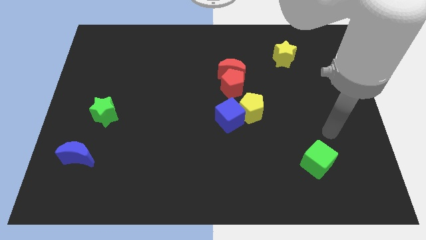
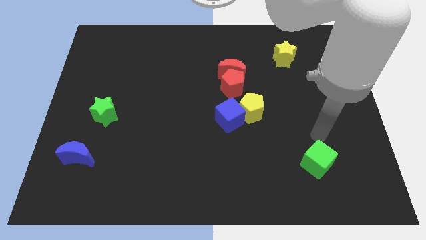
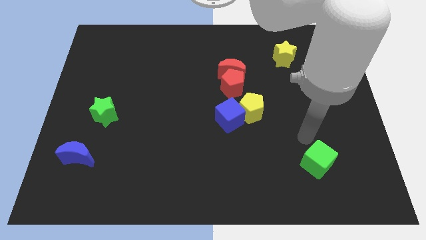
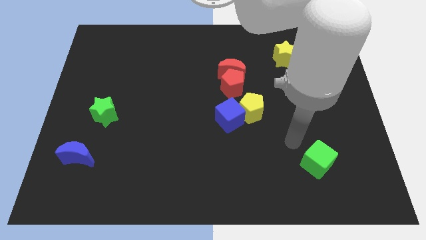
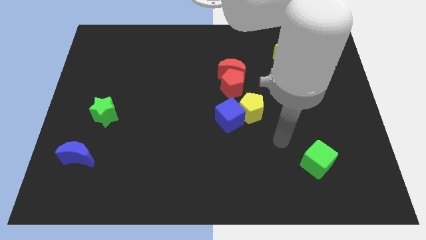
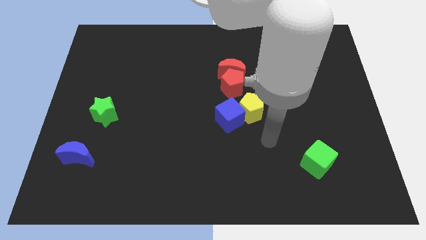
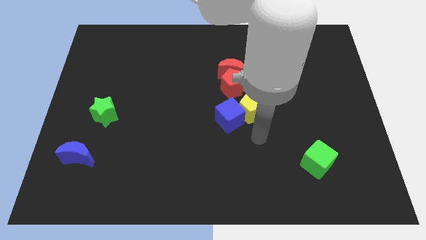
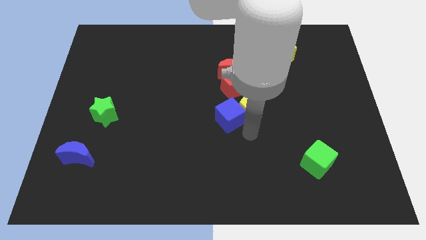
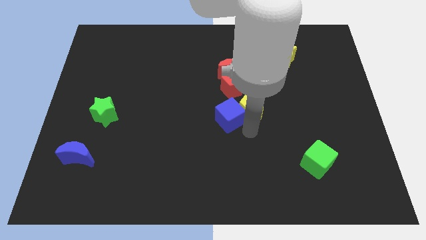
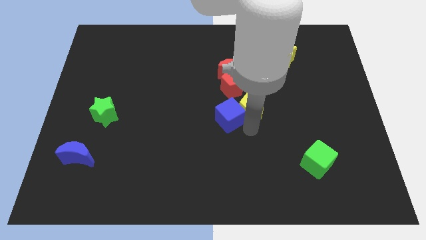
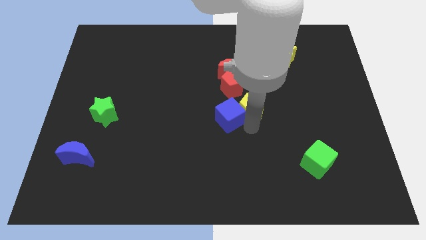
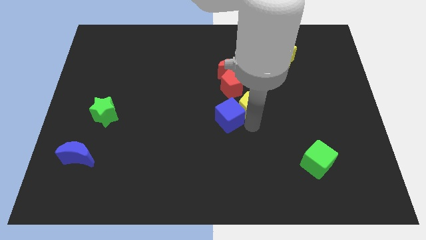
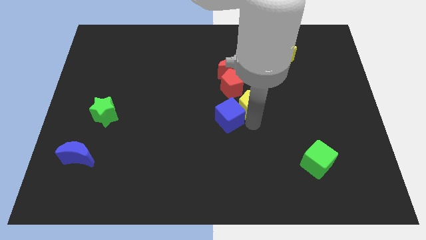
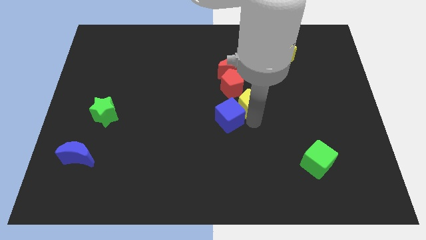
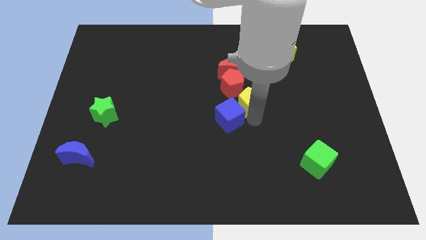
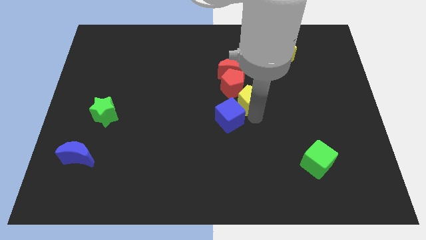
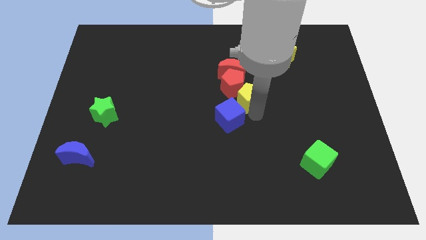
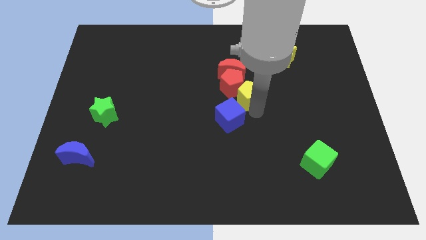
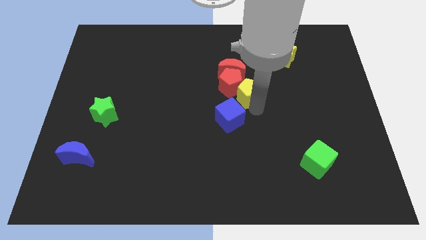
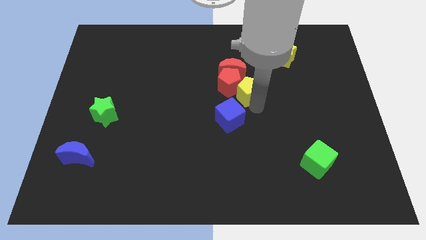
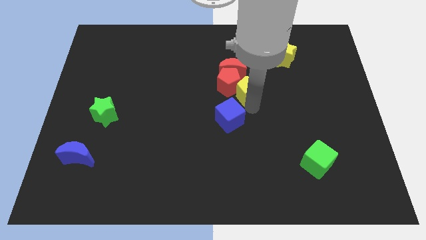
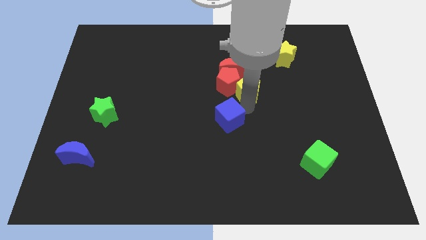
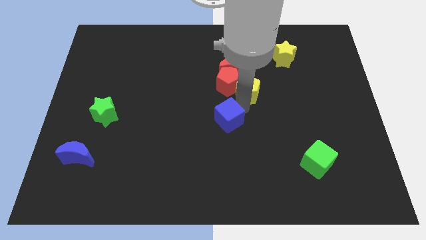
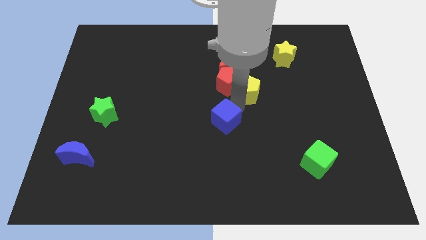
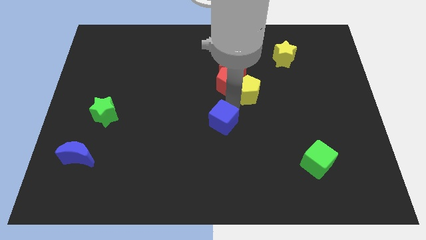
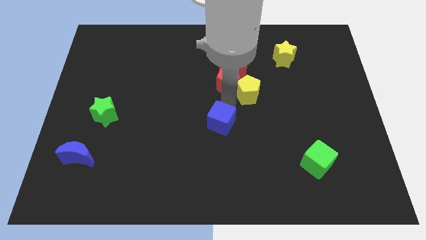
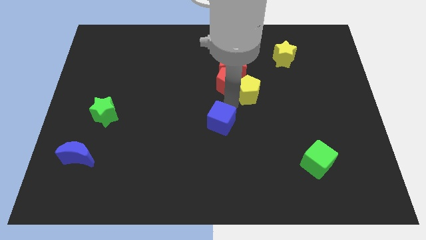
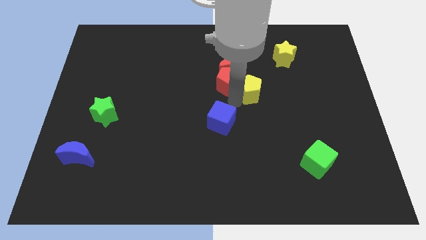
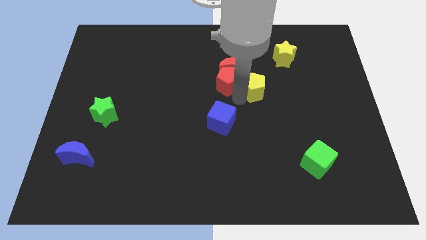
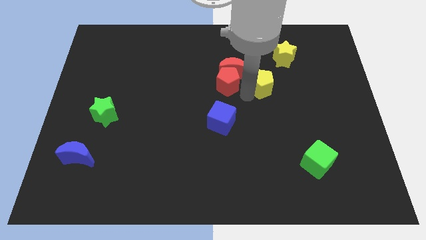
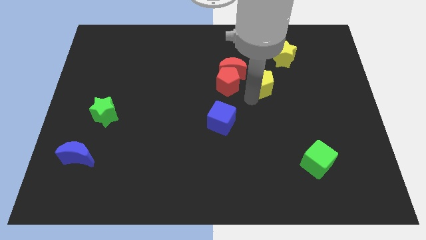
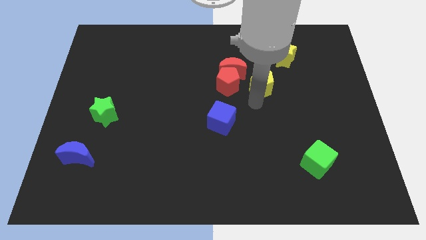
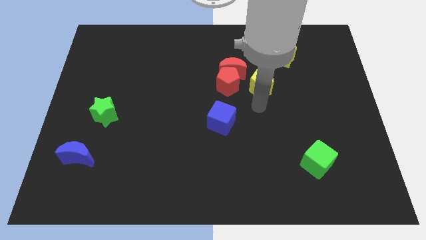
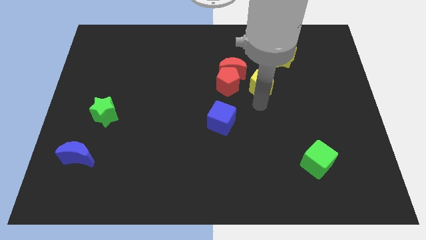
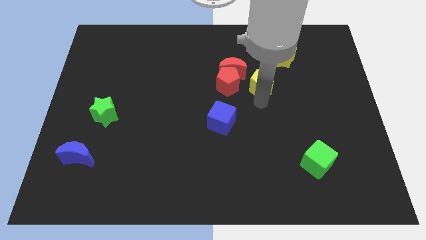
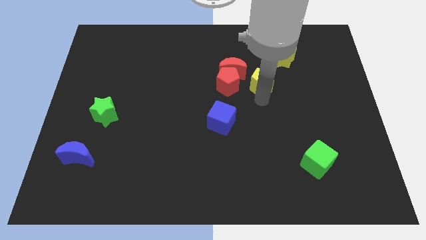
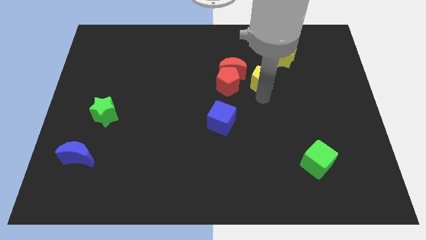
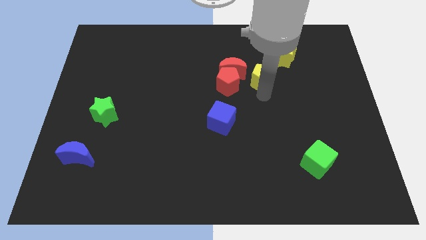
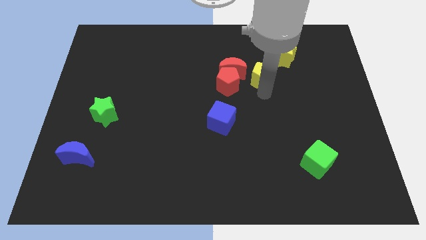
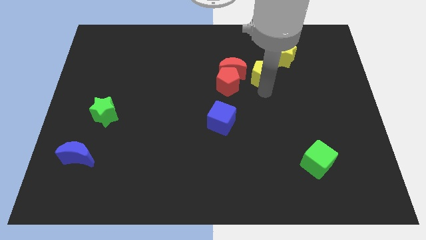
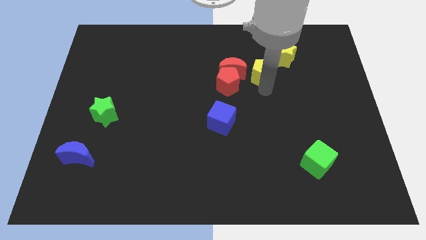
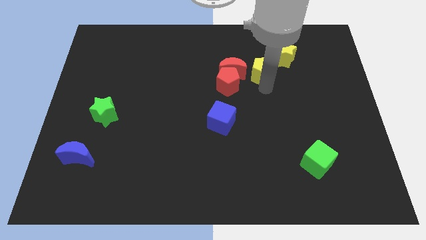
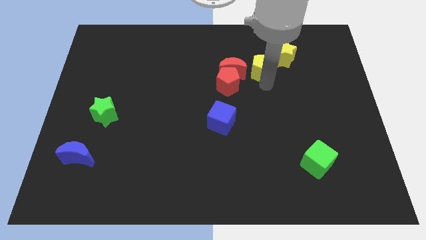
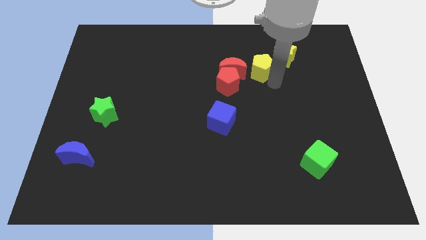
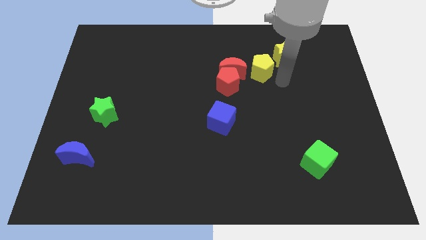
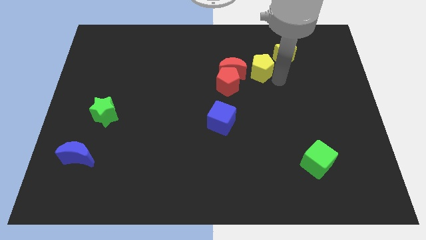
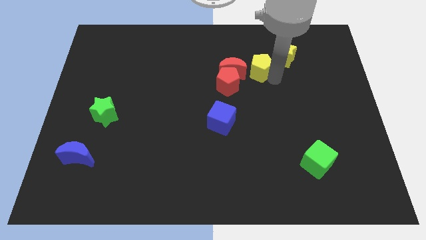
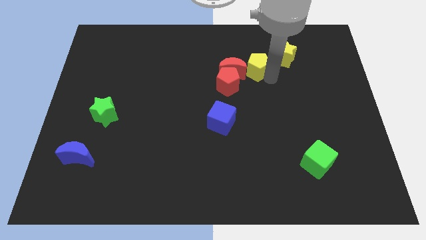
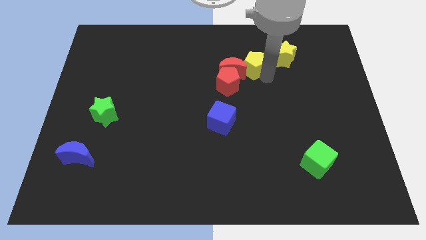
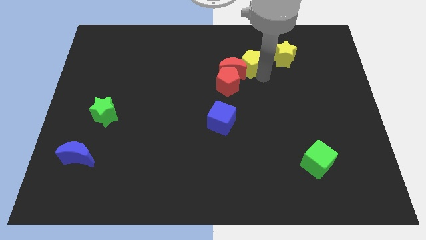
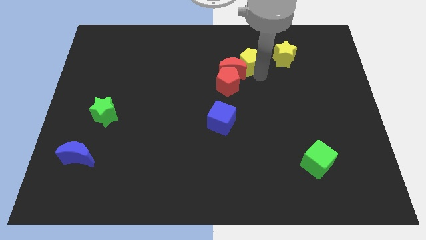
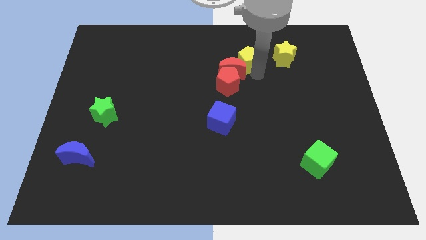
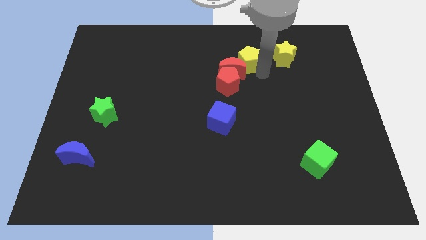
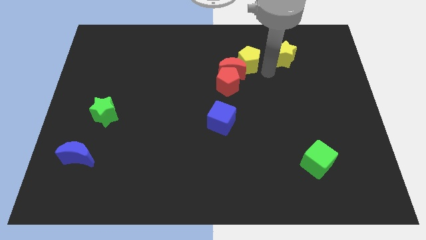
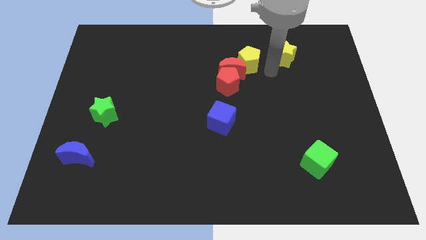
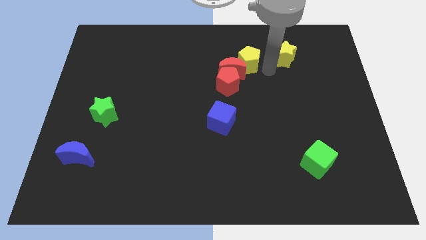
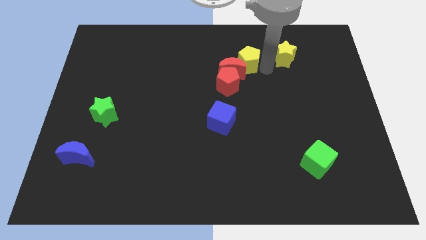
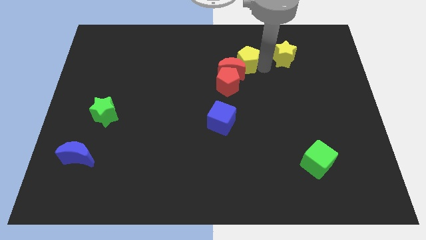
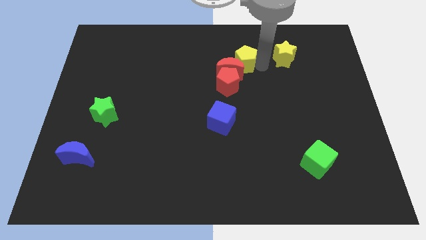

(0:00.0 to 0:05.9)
push the yellow pentagon above the red pentagon

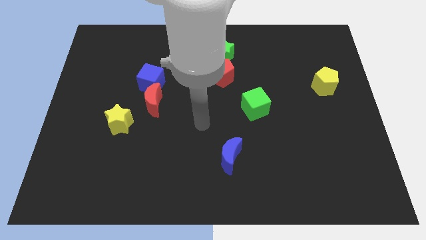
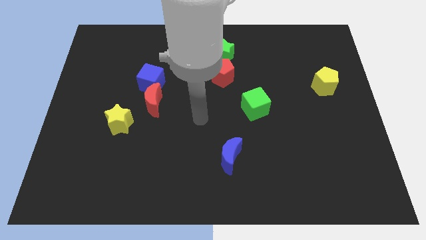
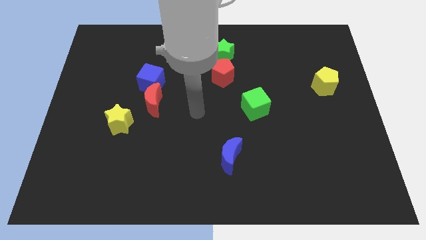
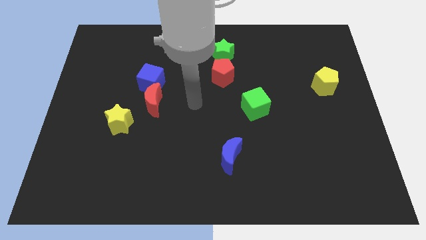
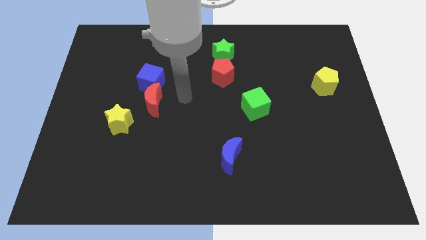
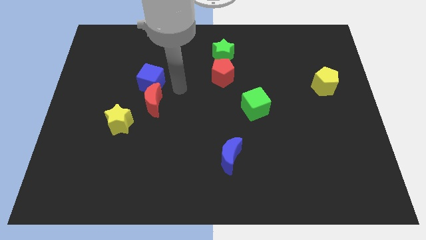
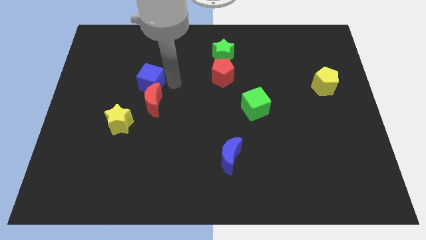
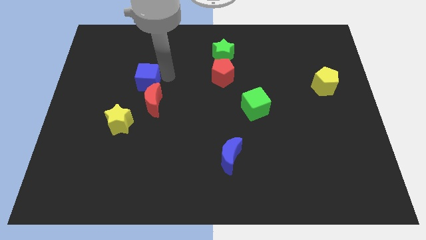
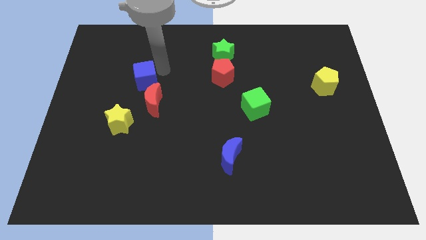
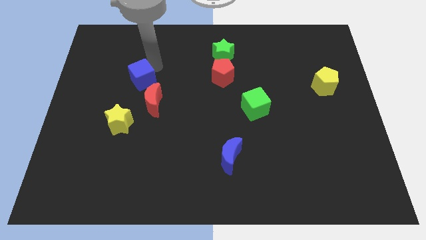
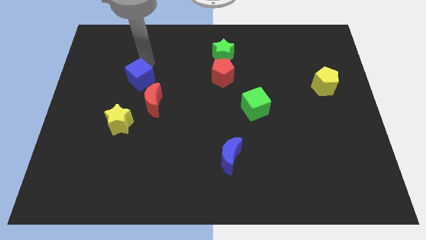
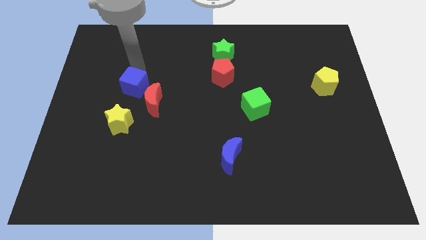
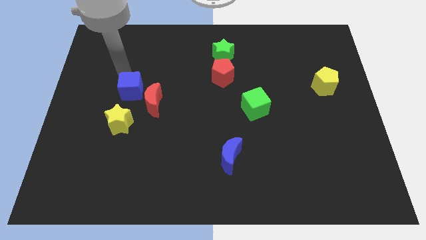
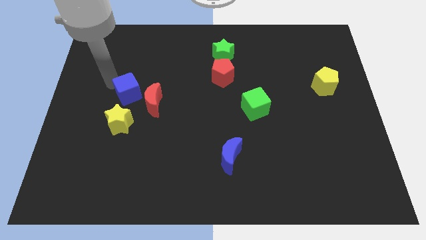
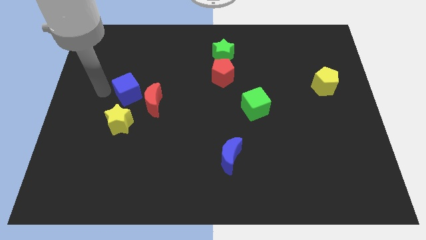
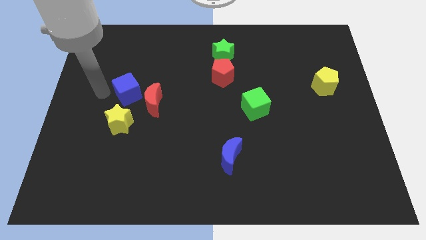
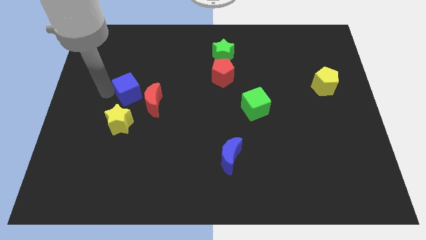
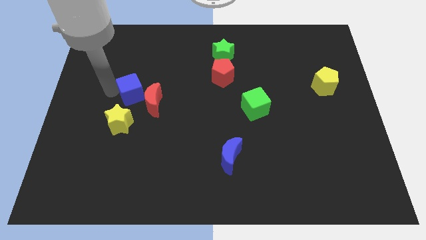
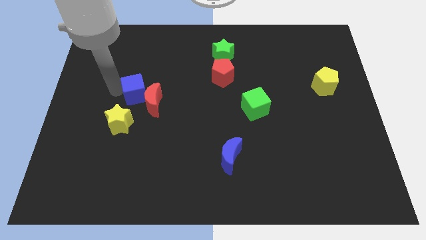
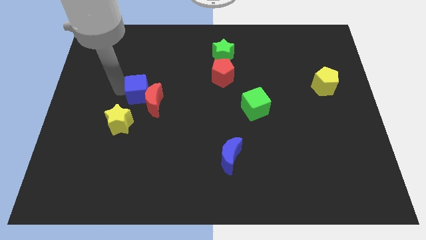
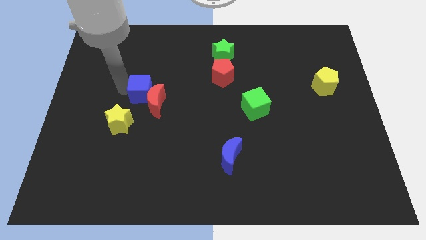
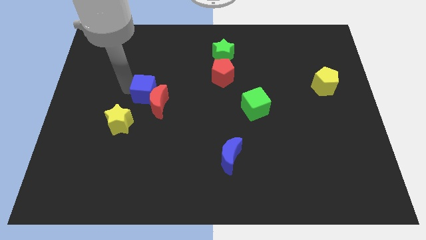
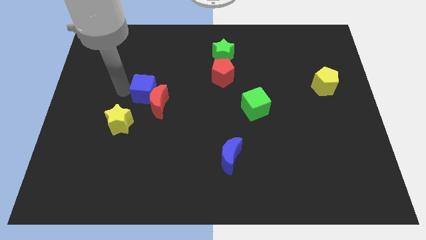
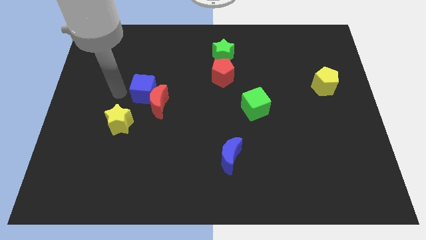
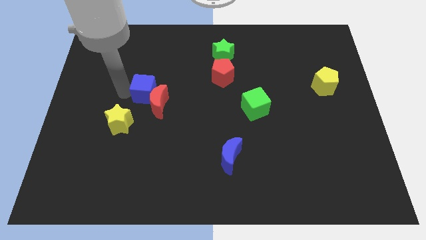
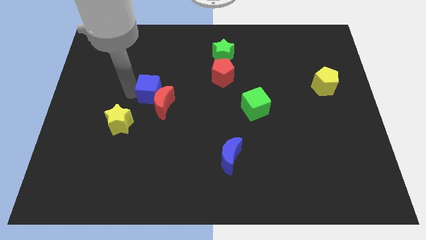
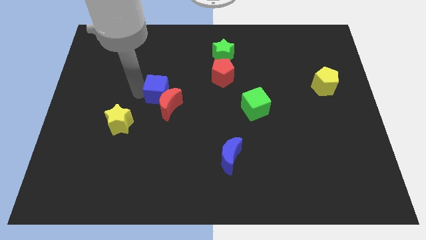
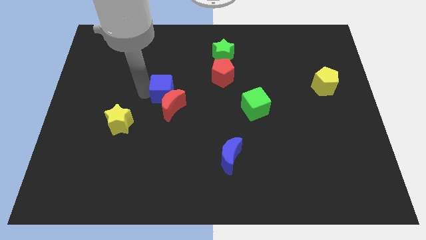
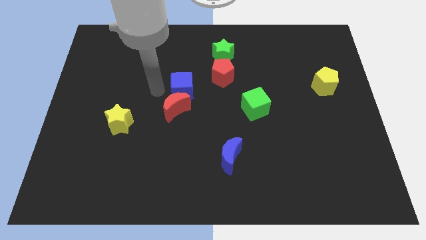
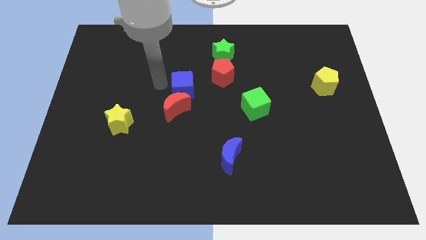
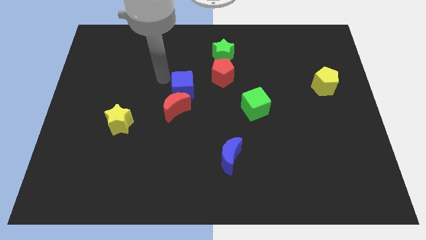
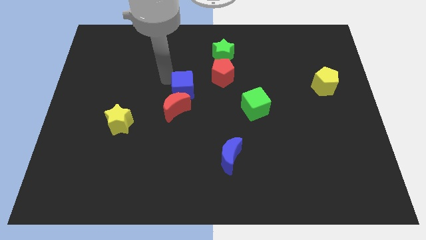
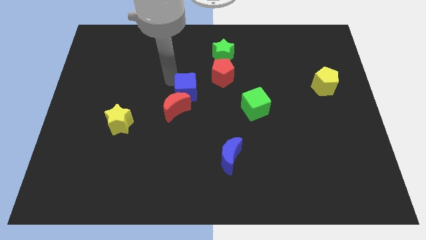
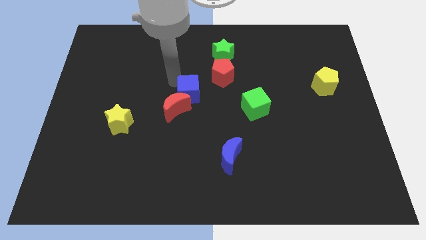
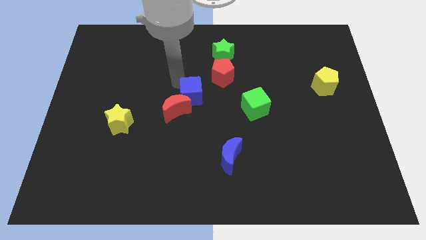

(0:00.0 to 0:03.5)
move the blue cube to the right side of the red moon
